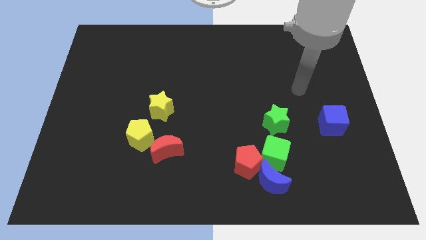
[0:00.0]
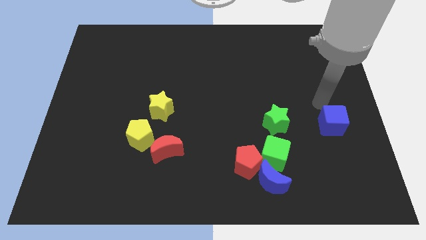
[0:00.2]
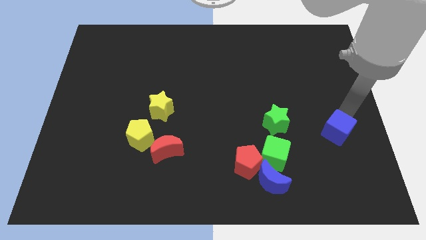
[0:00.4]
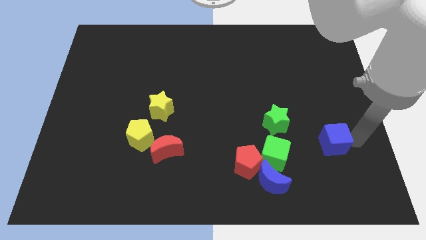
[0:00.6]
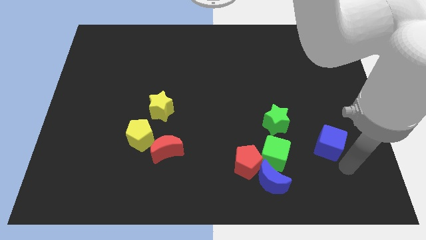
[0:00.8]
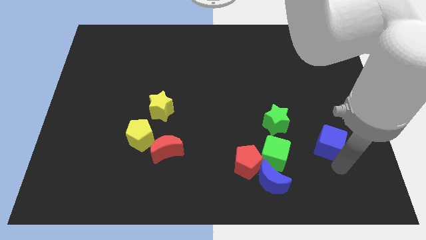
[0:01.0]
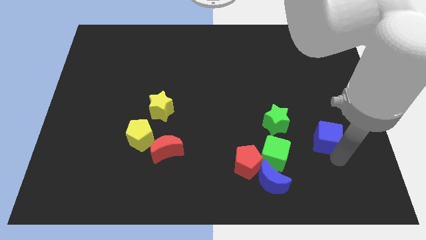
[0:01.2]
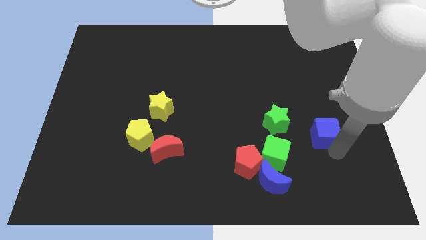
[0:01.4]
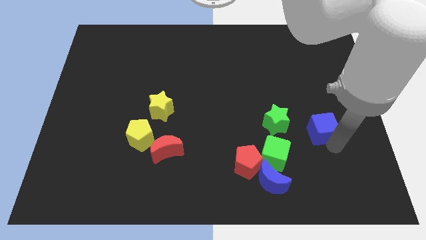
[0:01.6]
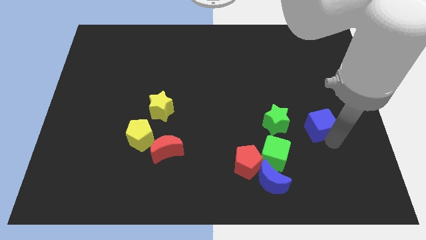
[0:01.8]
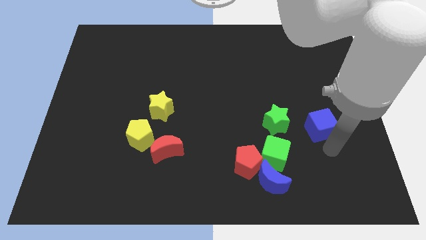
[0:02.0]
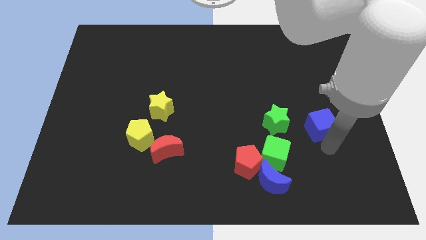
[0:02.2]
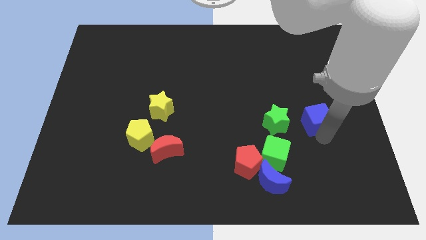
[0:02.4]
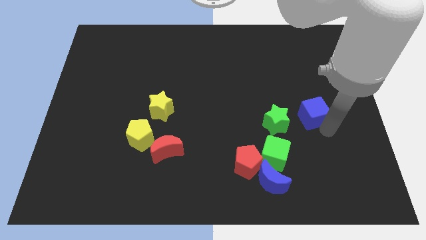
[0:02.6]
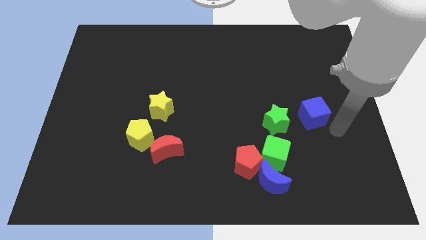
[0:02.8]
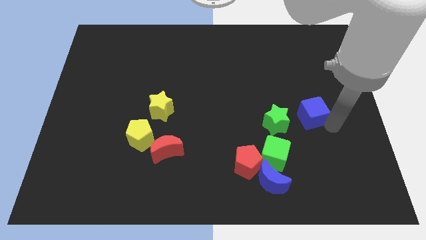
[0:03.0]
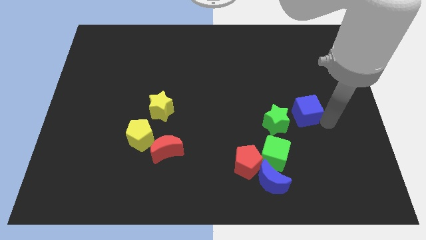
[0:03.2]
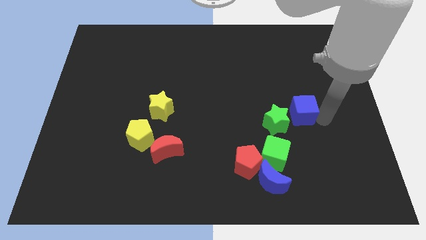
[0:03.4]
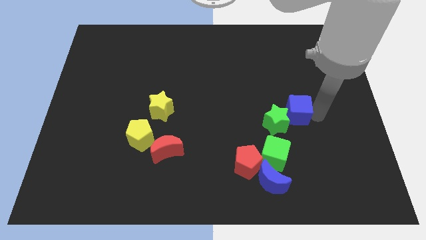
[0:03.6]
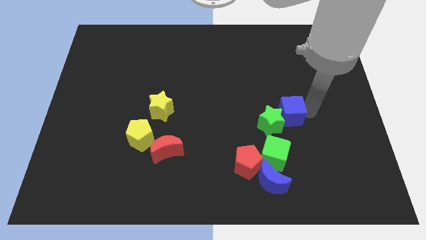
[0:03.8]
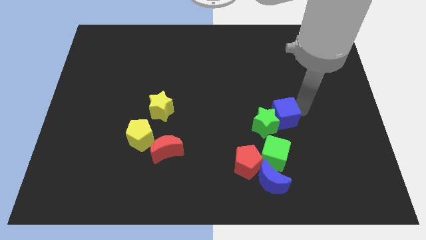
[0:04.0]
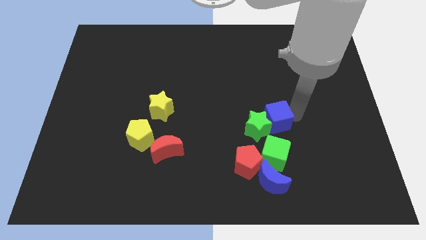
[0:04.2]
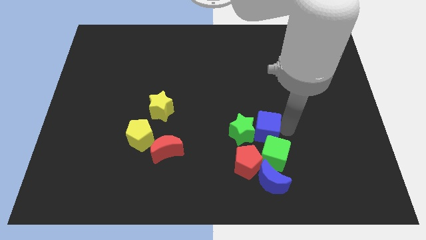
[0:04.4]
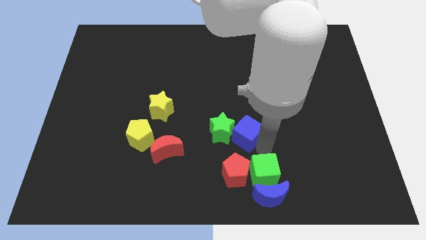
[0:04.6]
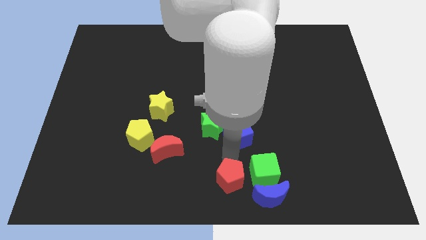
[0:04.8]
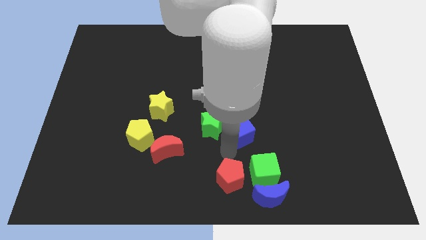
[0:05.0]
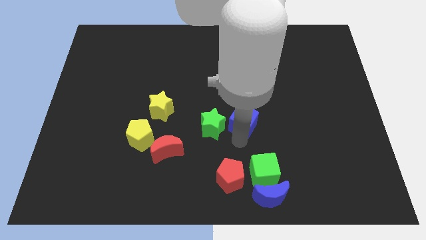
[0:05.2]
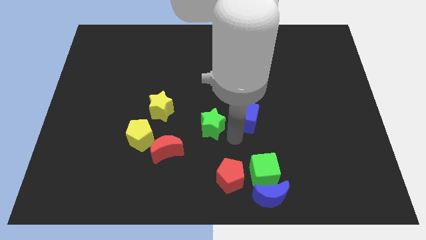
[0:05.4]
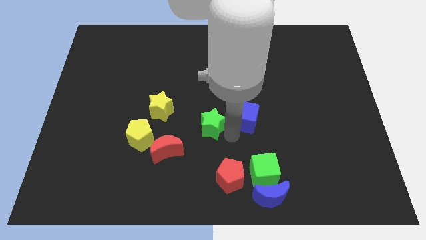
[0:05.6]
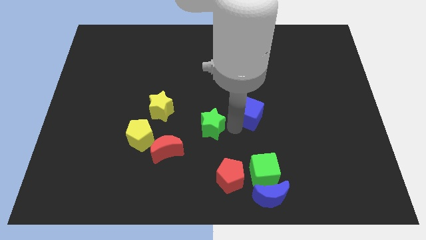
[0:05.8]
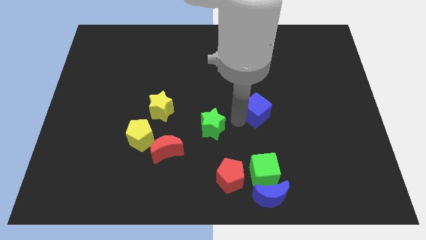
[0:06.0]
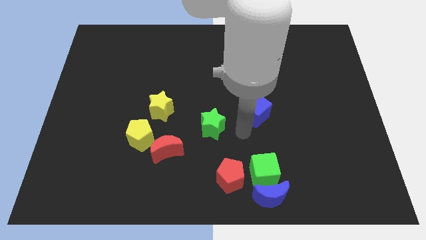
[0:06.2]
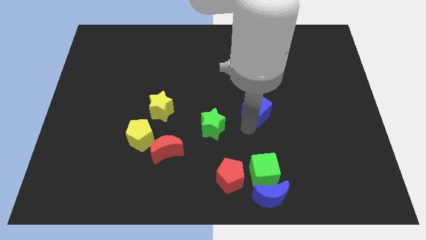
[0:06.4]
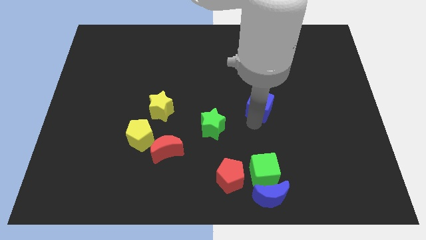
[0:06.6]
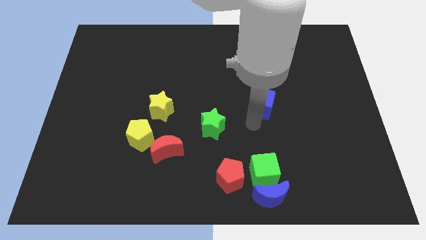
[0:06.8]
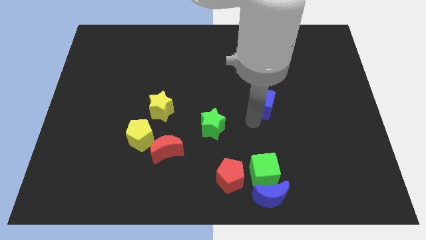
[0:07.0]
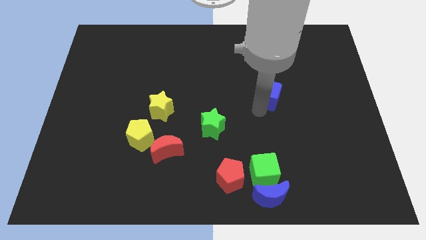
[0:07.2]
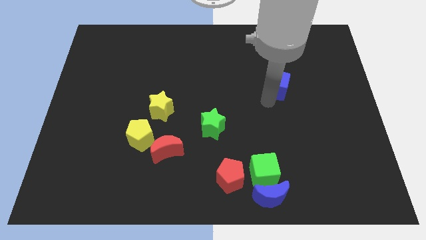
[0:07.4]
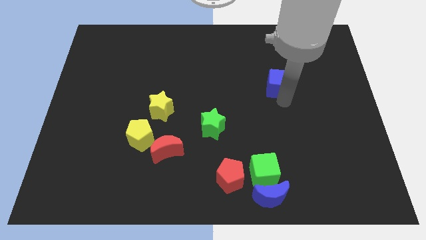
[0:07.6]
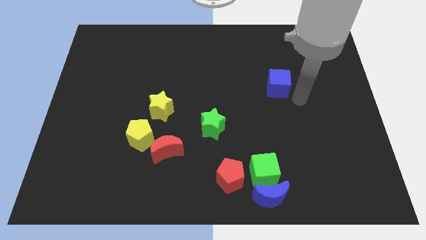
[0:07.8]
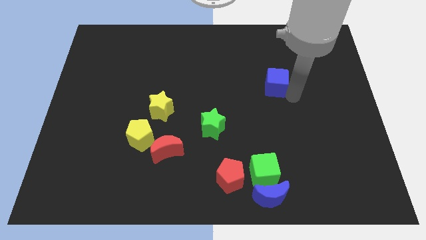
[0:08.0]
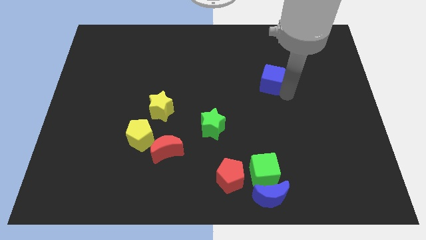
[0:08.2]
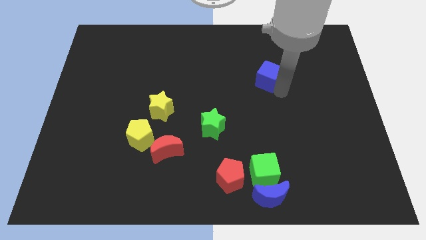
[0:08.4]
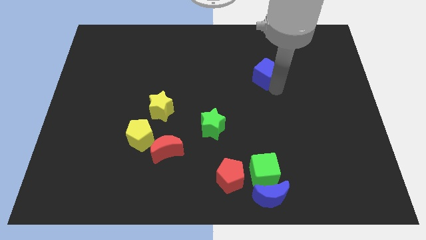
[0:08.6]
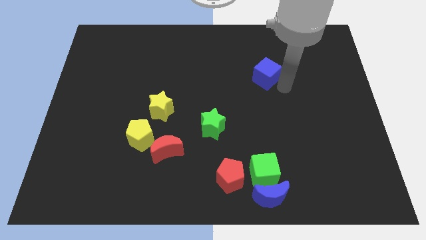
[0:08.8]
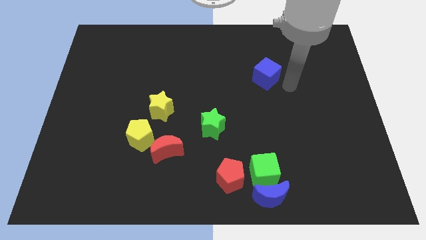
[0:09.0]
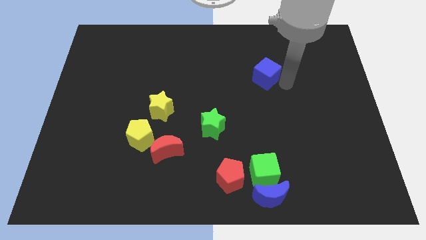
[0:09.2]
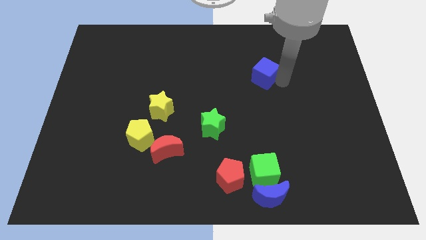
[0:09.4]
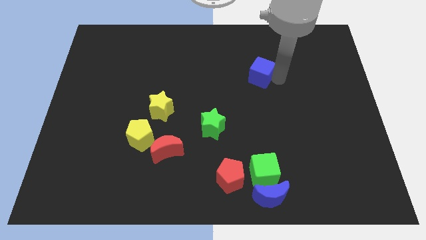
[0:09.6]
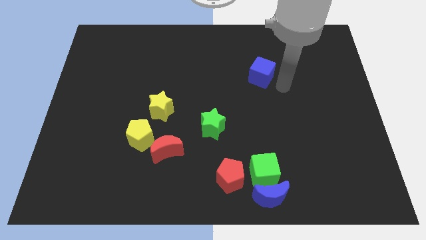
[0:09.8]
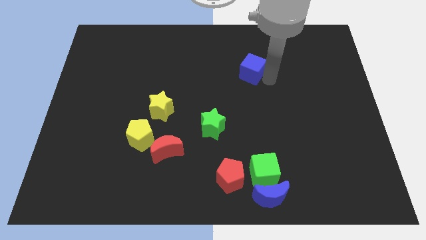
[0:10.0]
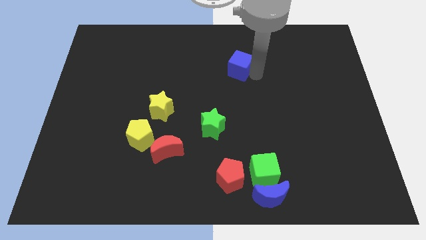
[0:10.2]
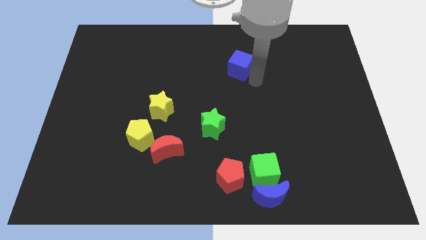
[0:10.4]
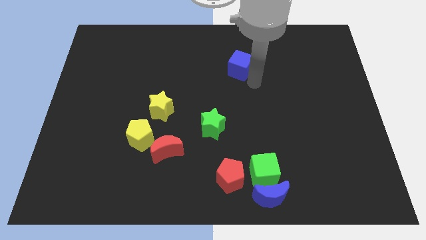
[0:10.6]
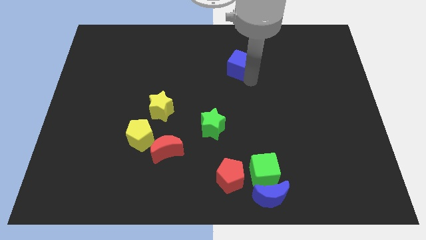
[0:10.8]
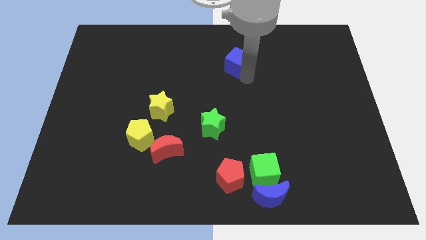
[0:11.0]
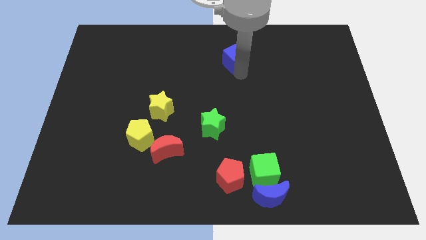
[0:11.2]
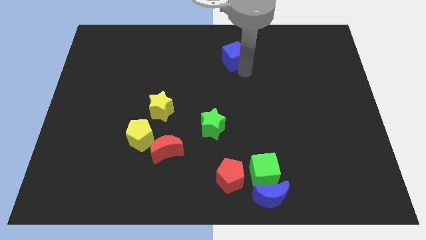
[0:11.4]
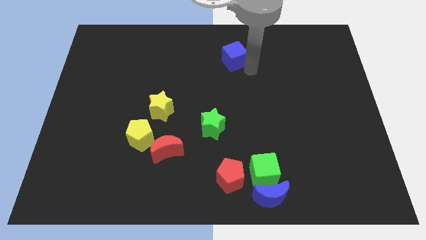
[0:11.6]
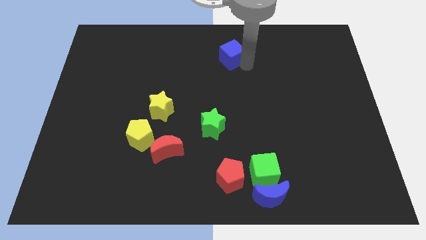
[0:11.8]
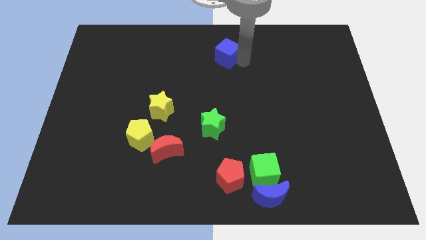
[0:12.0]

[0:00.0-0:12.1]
push the blue cube to the top side
